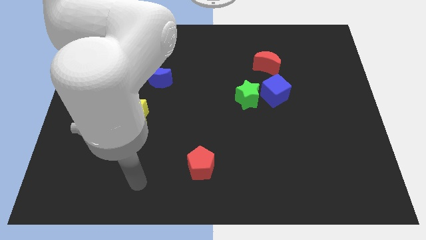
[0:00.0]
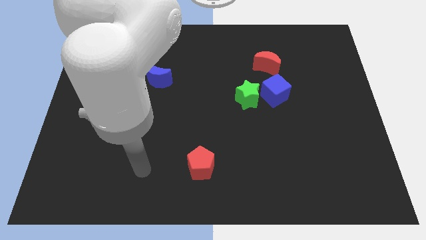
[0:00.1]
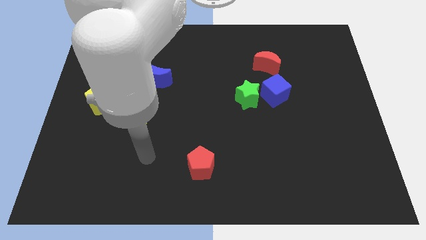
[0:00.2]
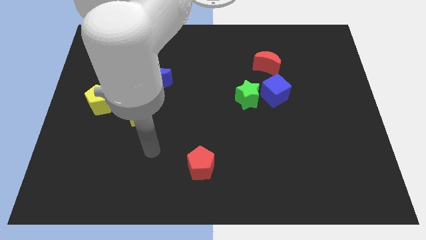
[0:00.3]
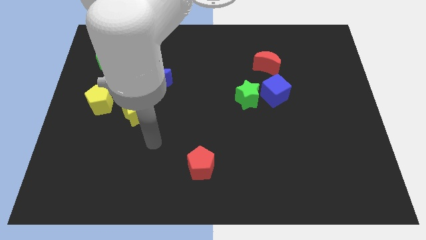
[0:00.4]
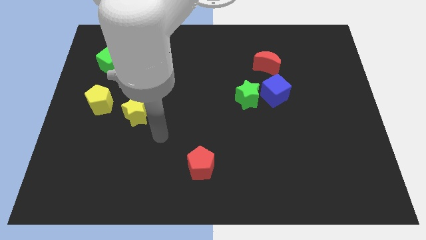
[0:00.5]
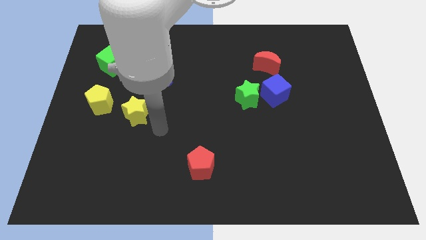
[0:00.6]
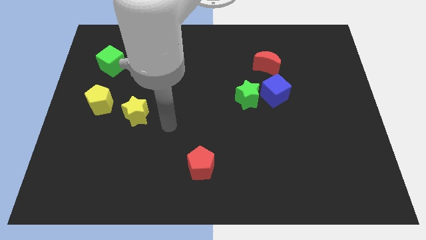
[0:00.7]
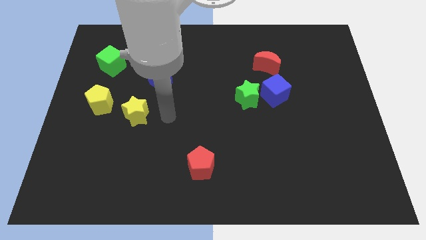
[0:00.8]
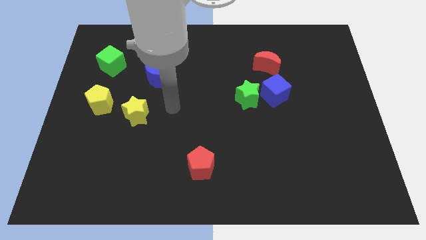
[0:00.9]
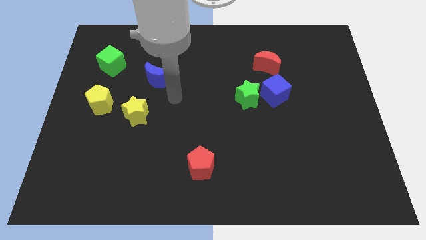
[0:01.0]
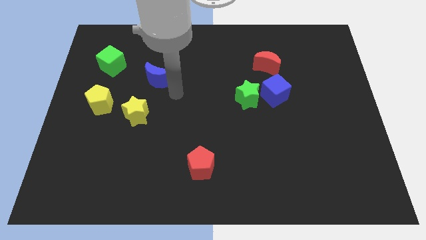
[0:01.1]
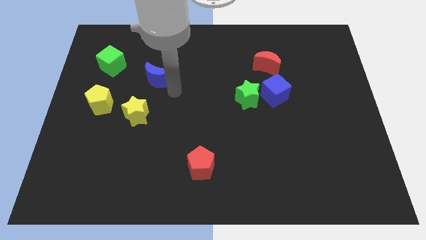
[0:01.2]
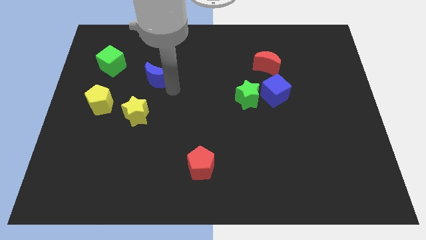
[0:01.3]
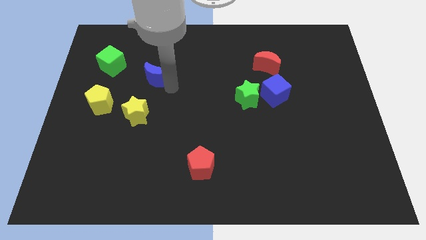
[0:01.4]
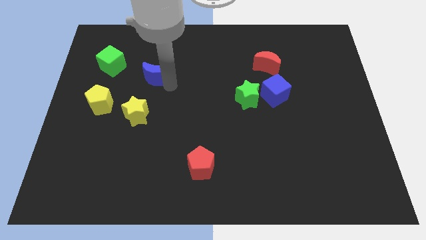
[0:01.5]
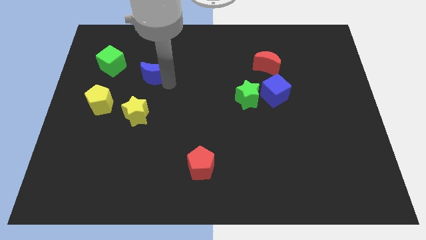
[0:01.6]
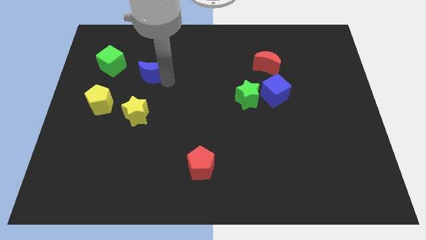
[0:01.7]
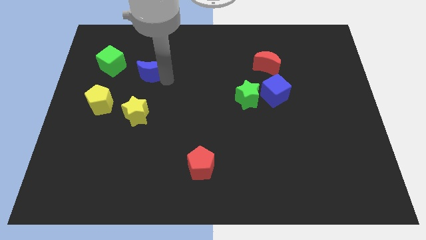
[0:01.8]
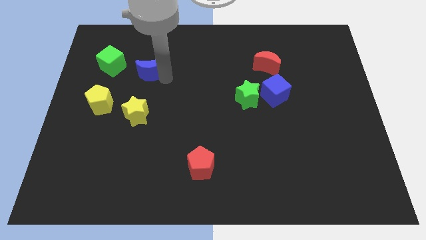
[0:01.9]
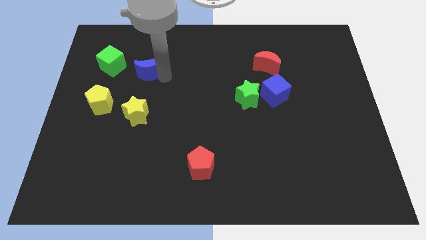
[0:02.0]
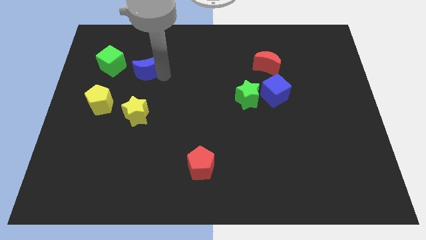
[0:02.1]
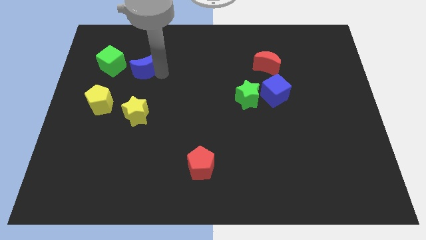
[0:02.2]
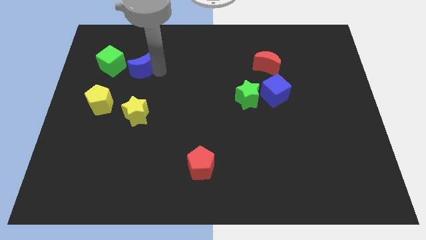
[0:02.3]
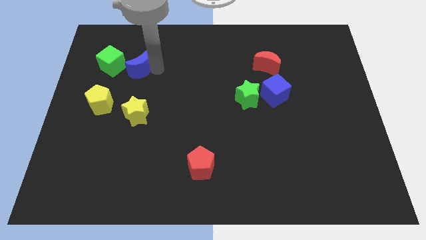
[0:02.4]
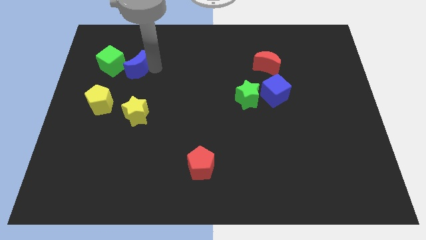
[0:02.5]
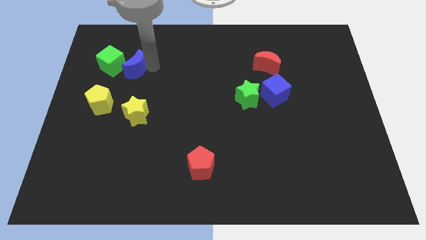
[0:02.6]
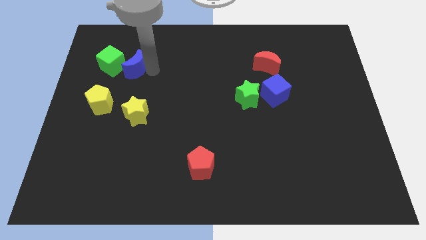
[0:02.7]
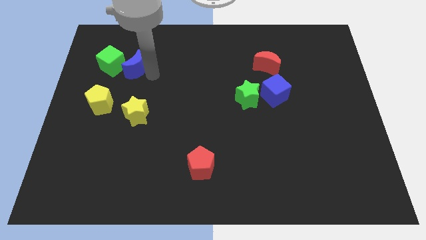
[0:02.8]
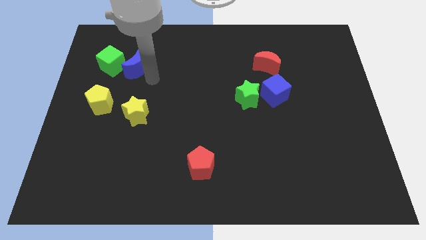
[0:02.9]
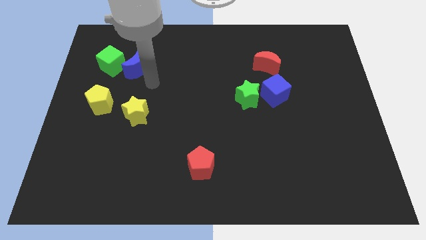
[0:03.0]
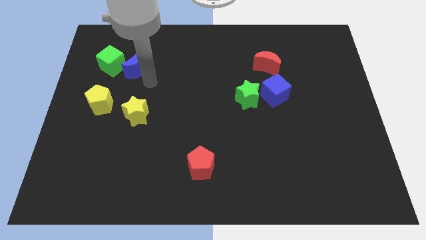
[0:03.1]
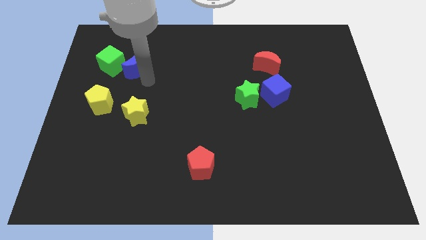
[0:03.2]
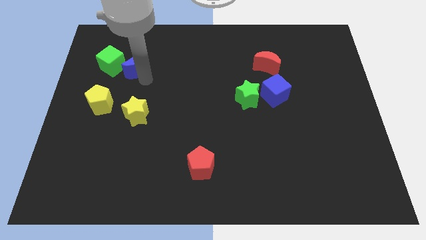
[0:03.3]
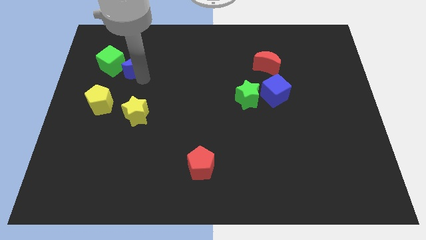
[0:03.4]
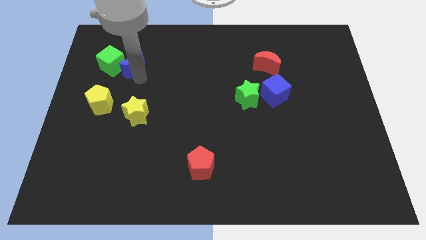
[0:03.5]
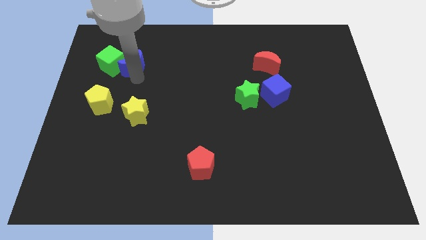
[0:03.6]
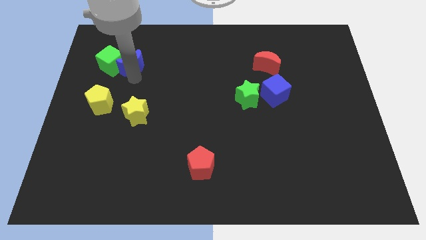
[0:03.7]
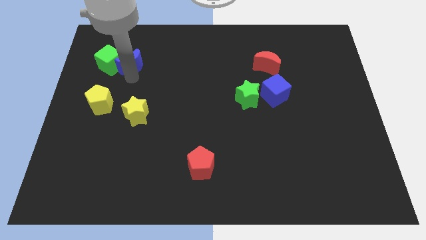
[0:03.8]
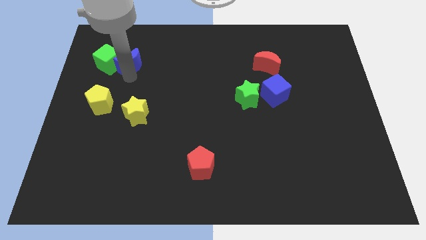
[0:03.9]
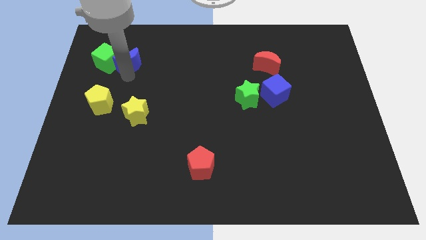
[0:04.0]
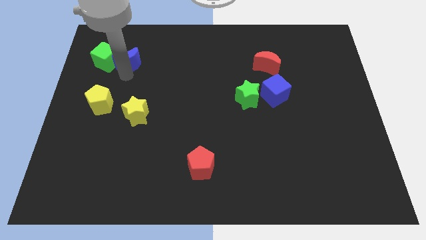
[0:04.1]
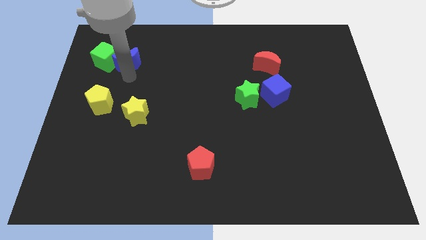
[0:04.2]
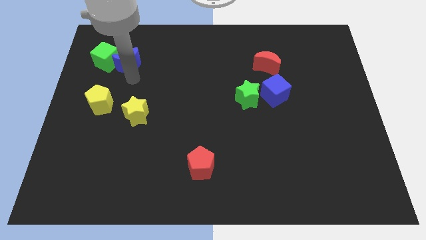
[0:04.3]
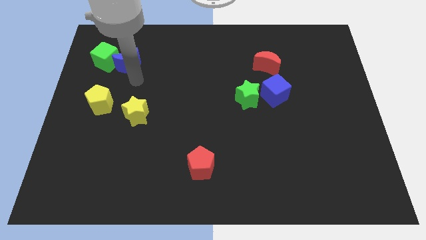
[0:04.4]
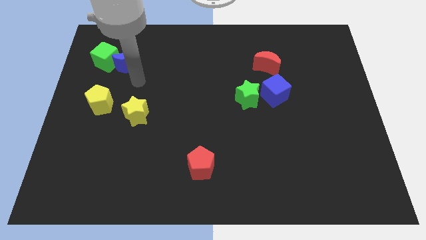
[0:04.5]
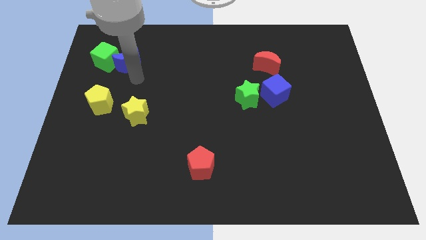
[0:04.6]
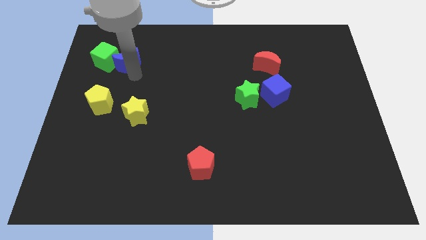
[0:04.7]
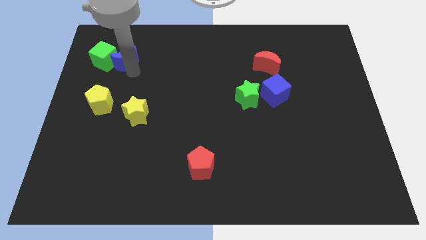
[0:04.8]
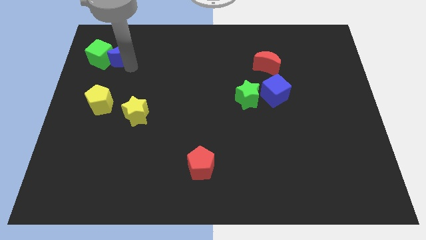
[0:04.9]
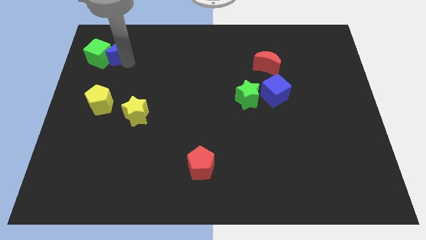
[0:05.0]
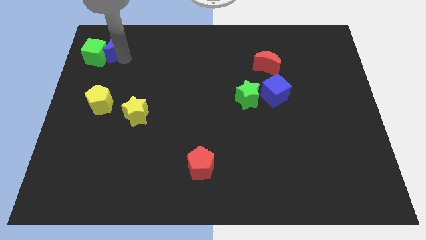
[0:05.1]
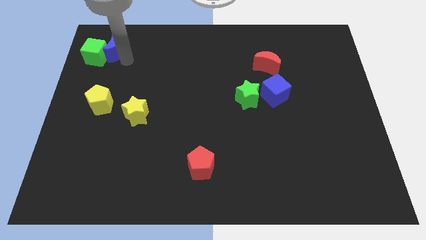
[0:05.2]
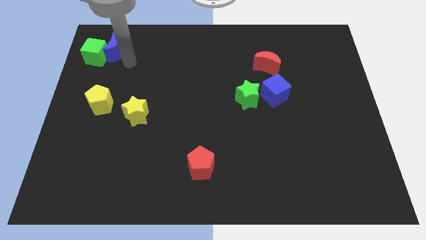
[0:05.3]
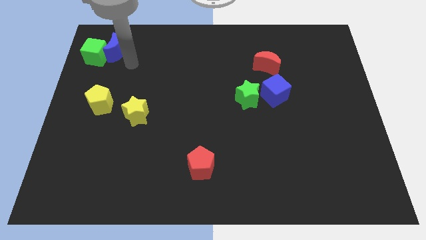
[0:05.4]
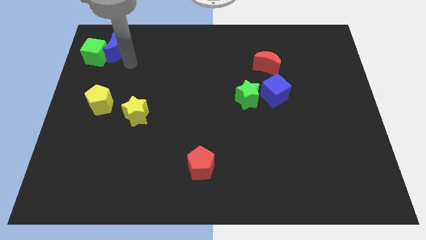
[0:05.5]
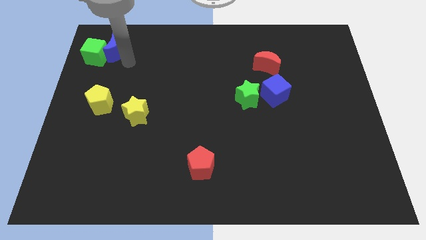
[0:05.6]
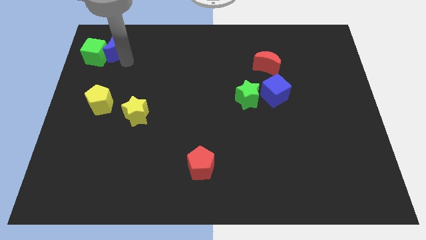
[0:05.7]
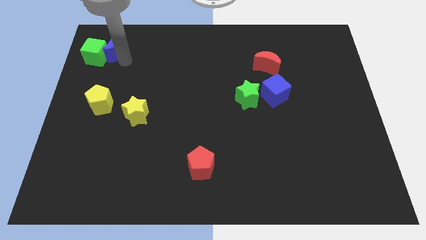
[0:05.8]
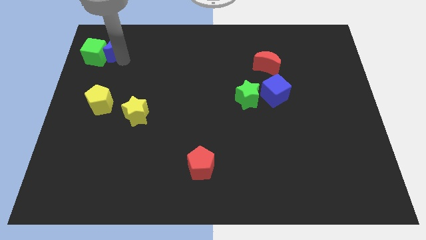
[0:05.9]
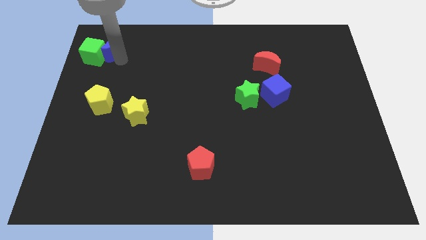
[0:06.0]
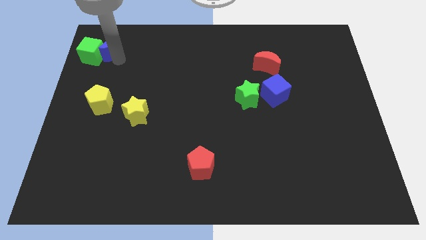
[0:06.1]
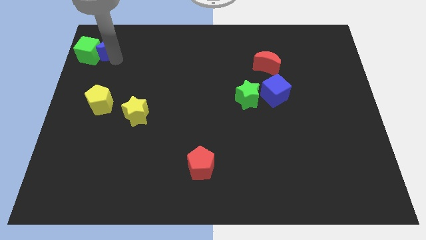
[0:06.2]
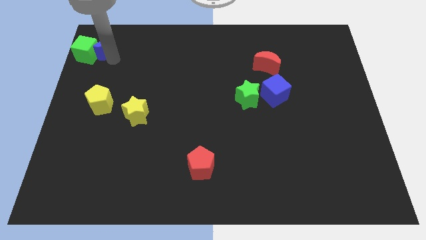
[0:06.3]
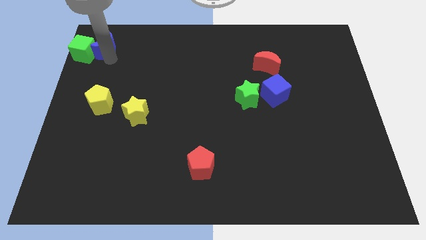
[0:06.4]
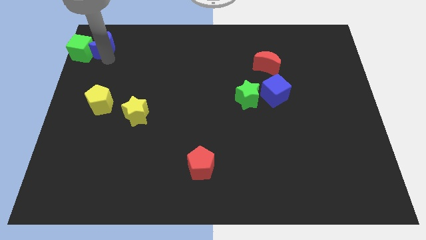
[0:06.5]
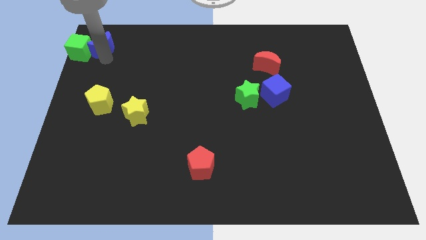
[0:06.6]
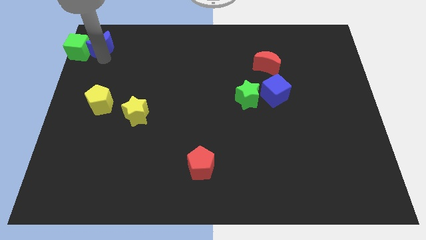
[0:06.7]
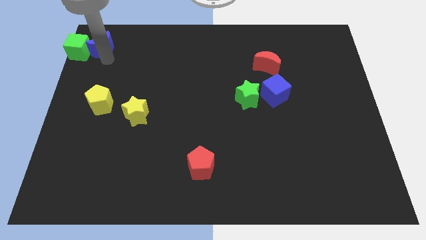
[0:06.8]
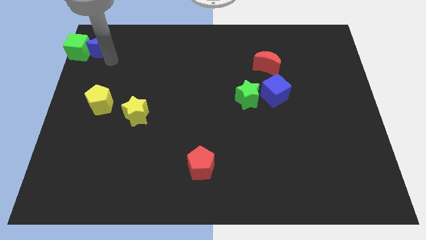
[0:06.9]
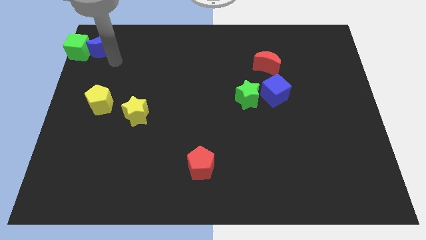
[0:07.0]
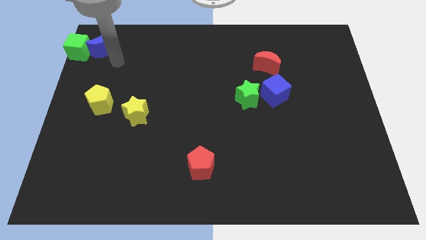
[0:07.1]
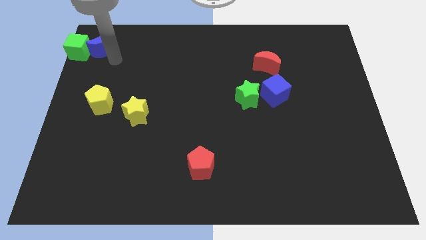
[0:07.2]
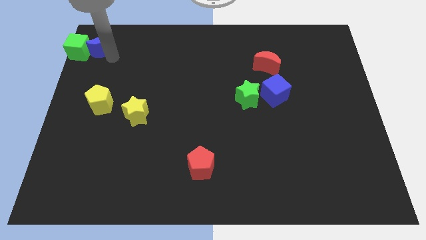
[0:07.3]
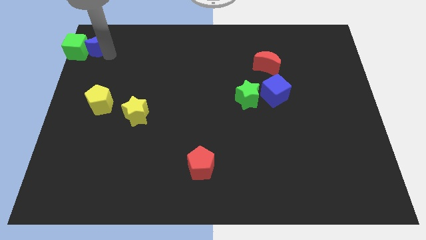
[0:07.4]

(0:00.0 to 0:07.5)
push the blue moon to the top left

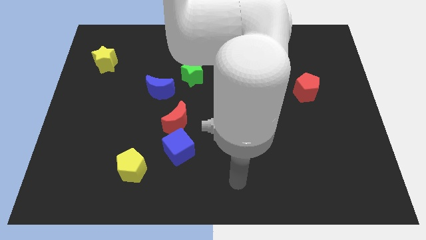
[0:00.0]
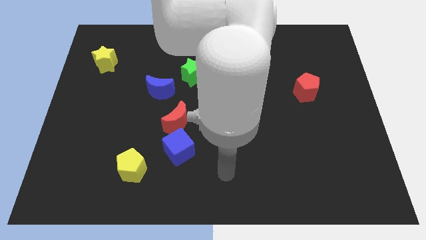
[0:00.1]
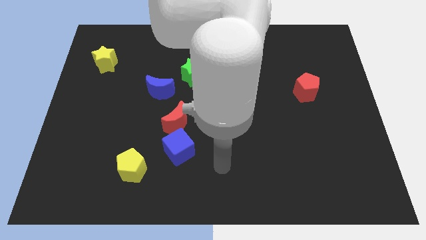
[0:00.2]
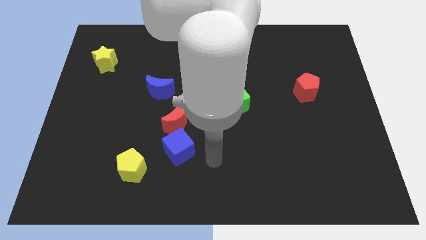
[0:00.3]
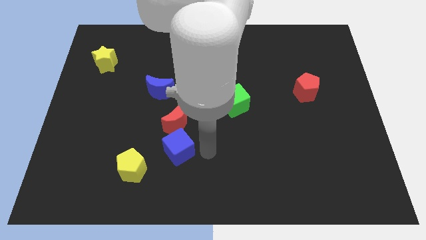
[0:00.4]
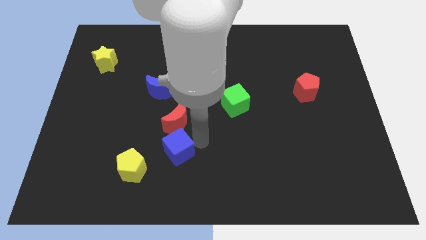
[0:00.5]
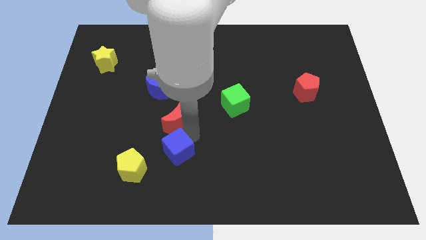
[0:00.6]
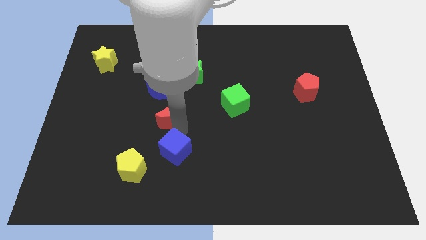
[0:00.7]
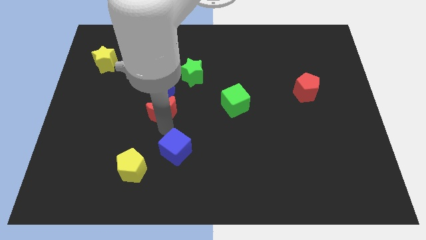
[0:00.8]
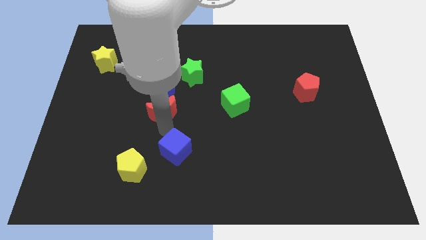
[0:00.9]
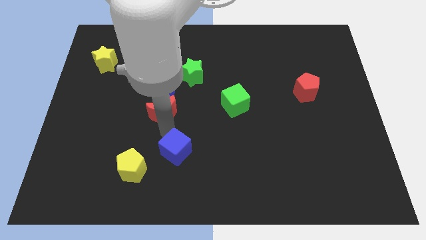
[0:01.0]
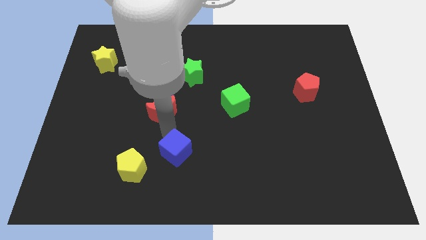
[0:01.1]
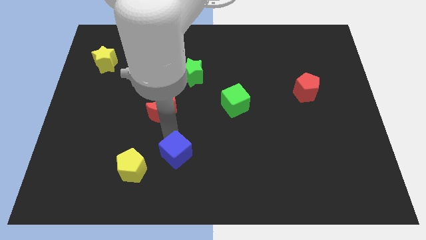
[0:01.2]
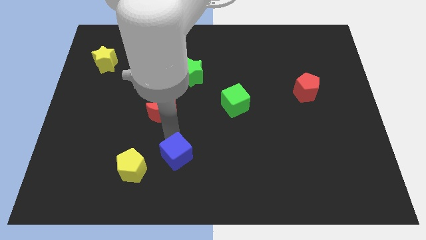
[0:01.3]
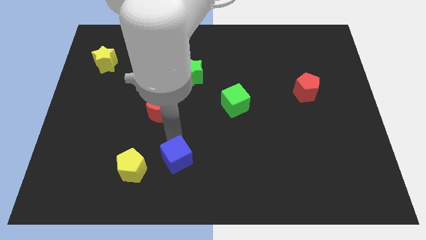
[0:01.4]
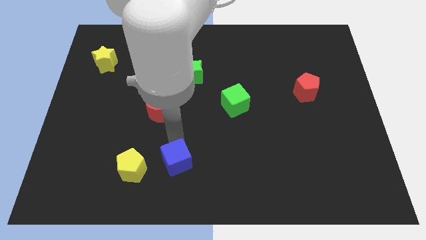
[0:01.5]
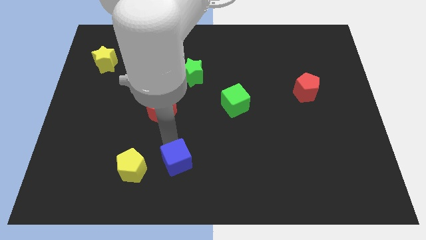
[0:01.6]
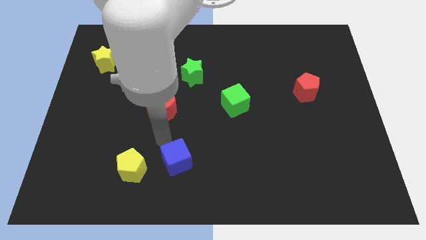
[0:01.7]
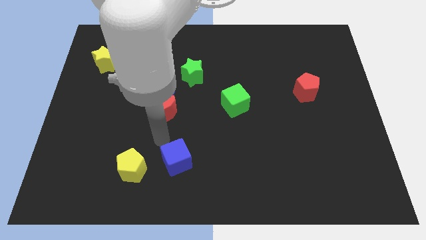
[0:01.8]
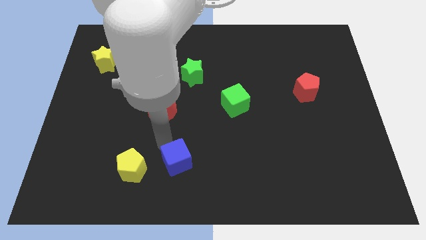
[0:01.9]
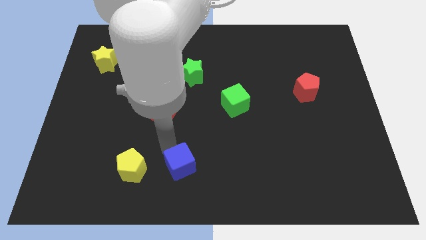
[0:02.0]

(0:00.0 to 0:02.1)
move the blue cube to the bottom
